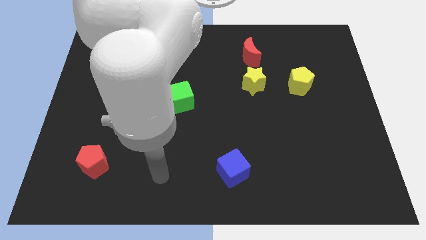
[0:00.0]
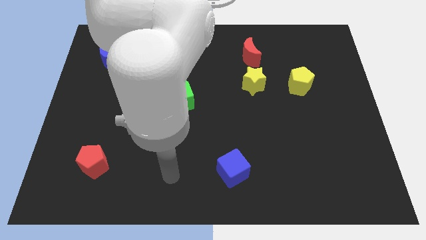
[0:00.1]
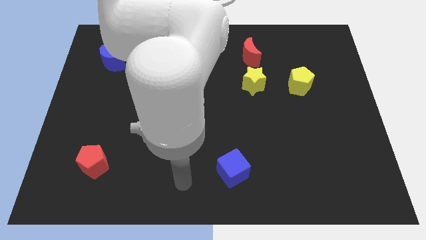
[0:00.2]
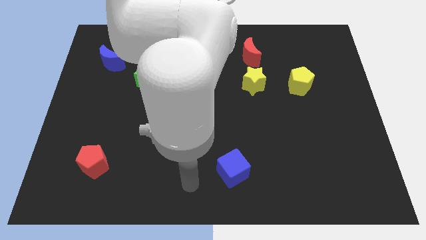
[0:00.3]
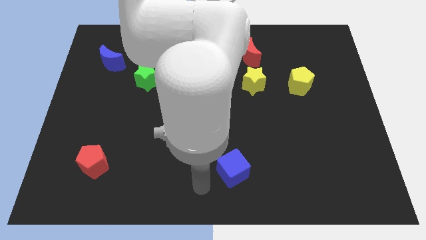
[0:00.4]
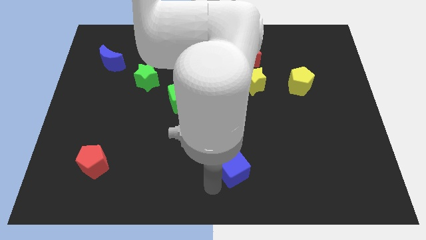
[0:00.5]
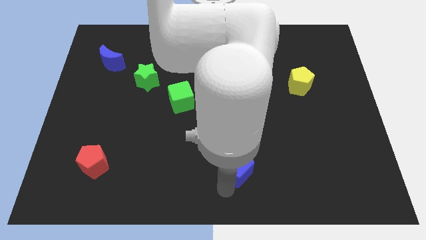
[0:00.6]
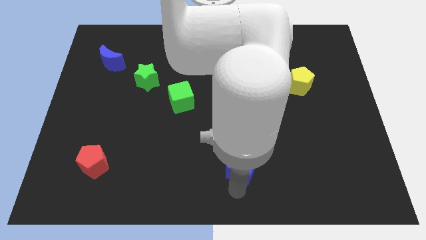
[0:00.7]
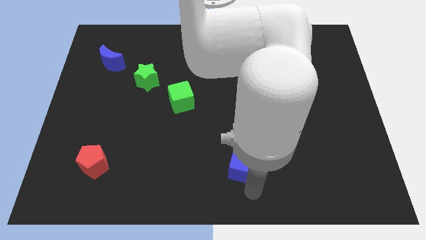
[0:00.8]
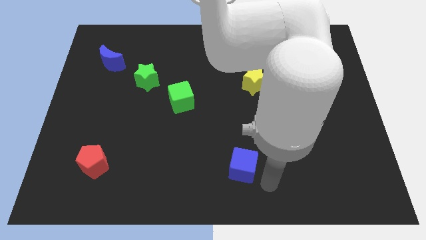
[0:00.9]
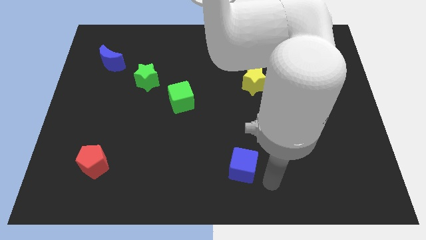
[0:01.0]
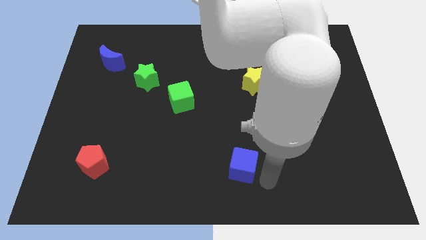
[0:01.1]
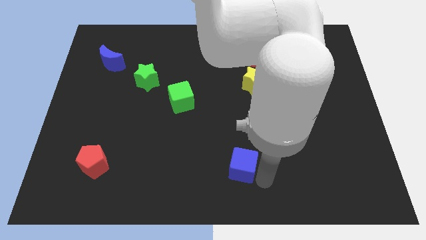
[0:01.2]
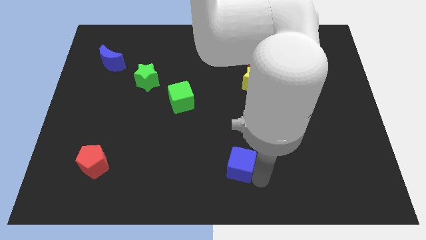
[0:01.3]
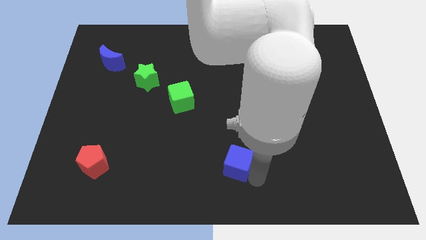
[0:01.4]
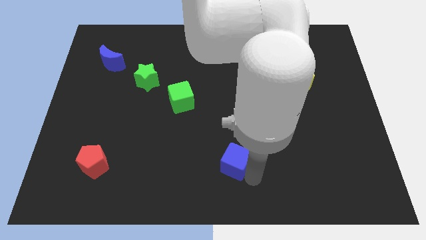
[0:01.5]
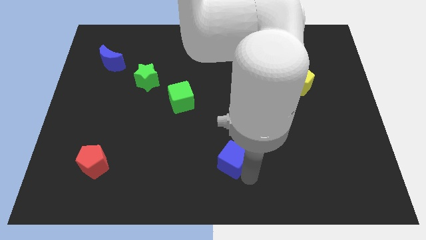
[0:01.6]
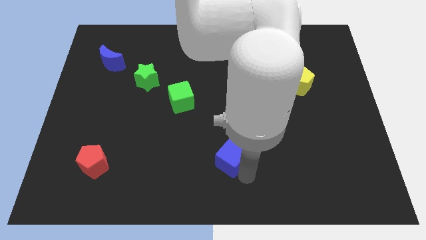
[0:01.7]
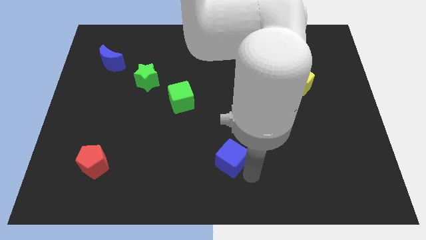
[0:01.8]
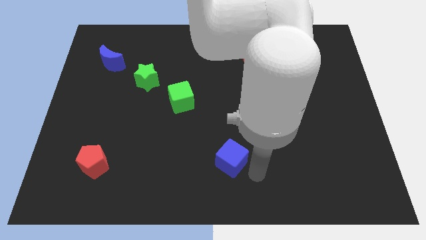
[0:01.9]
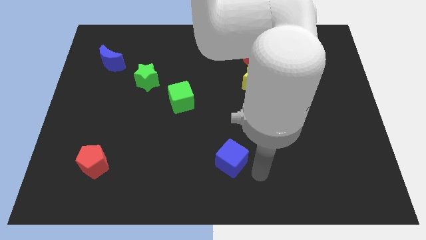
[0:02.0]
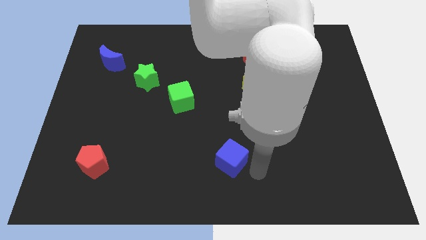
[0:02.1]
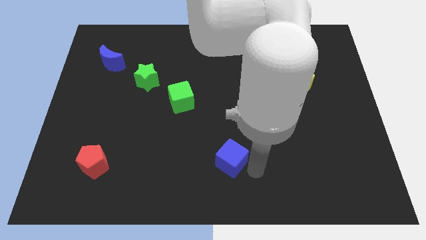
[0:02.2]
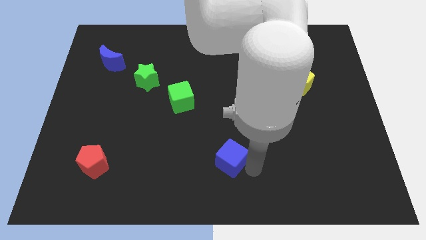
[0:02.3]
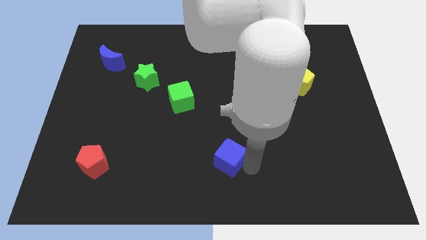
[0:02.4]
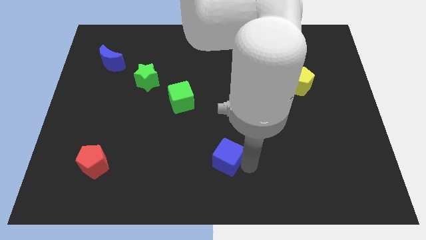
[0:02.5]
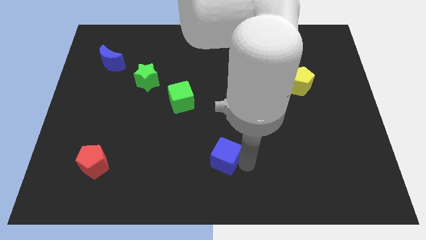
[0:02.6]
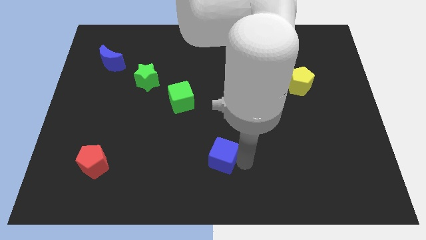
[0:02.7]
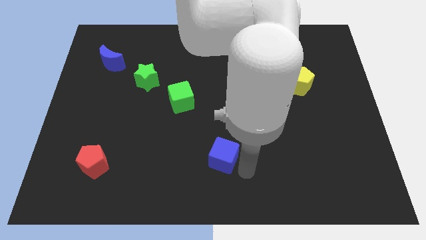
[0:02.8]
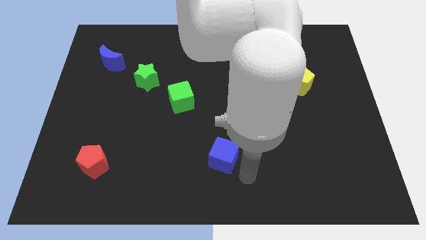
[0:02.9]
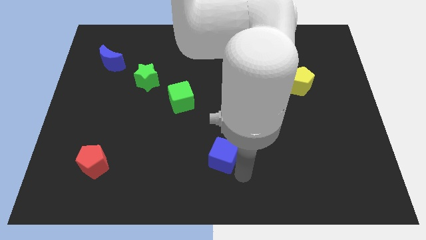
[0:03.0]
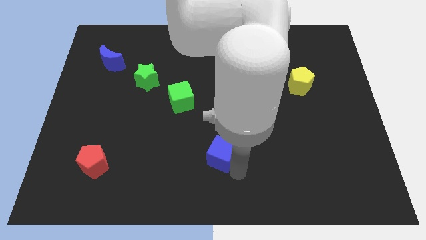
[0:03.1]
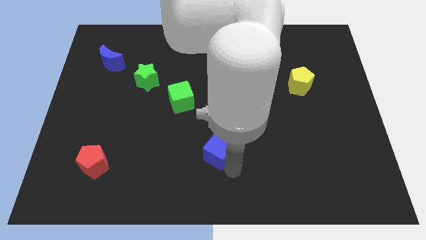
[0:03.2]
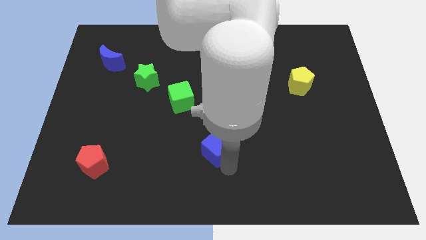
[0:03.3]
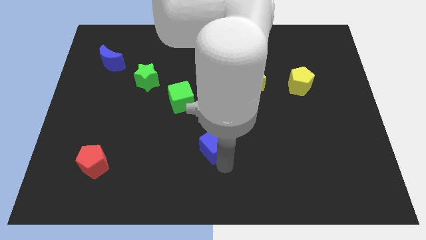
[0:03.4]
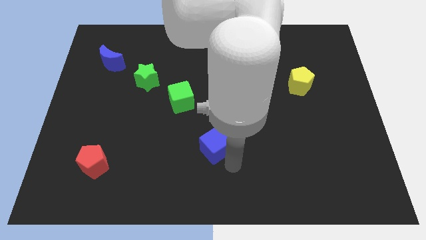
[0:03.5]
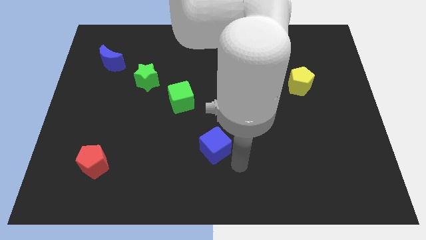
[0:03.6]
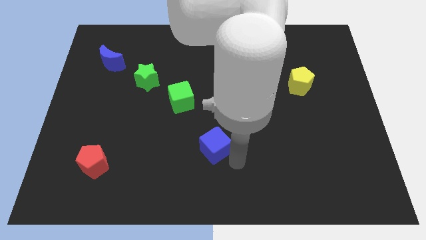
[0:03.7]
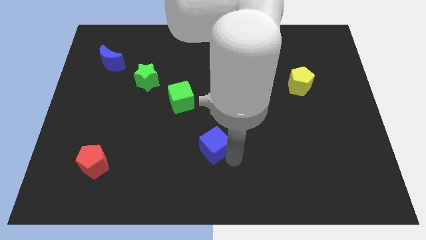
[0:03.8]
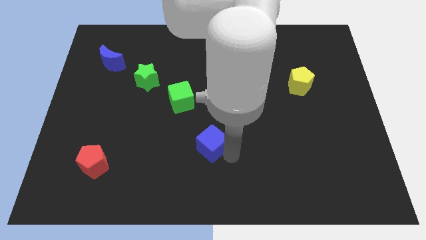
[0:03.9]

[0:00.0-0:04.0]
slightly slide the blue cube up and then to the left

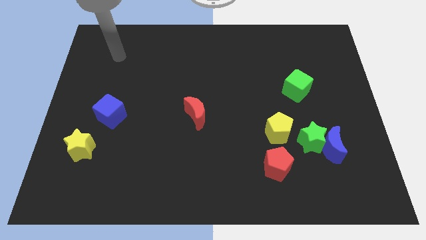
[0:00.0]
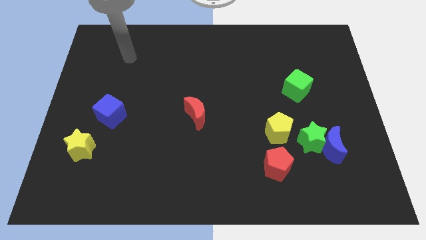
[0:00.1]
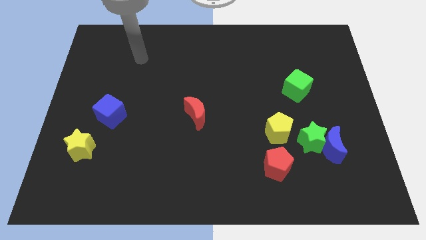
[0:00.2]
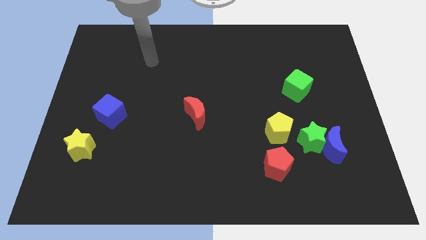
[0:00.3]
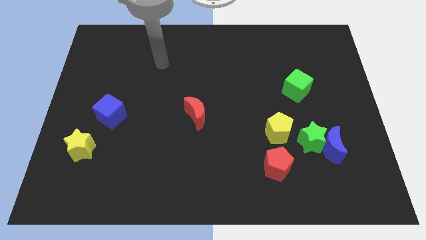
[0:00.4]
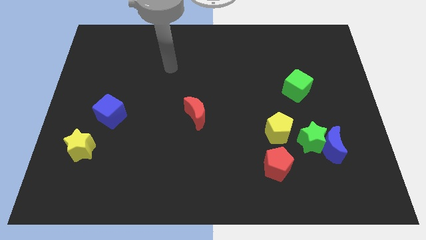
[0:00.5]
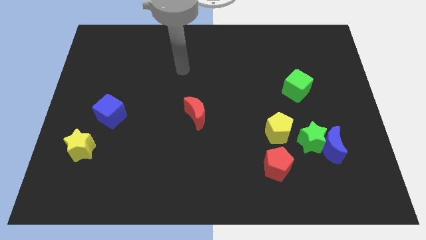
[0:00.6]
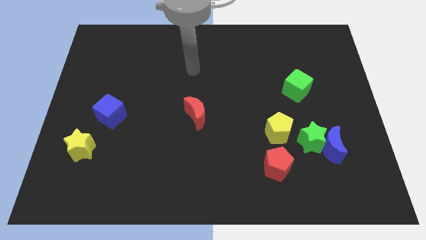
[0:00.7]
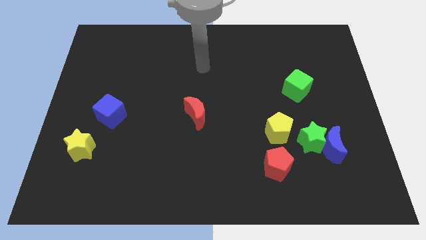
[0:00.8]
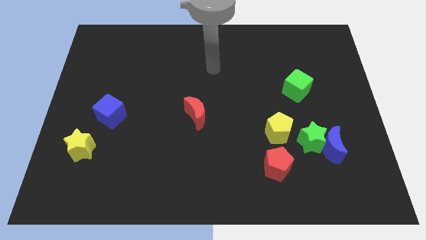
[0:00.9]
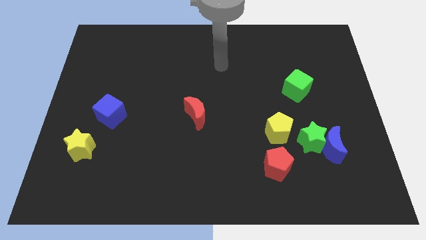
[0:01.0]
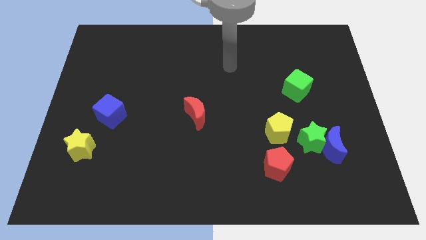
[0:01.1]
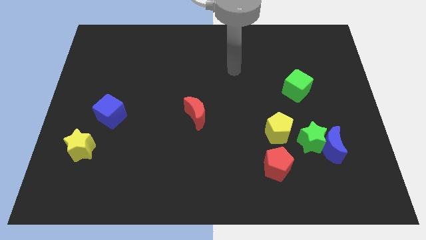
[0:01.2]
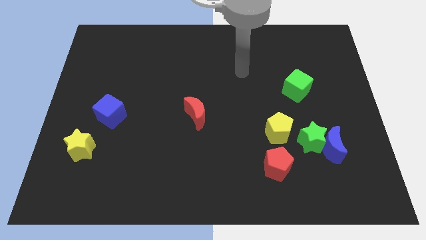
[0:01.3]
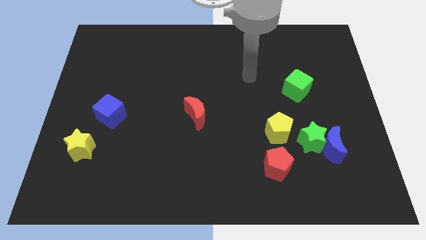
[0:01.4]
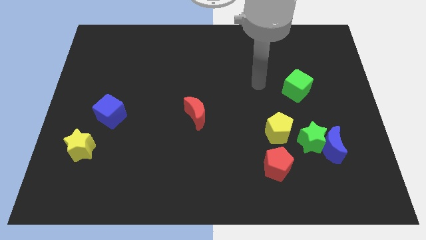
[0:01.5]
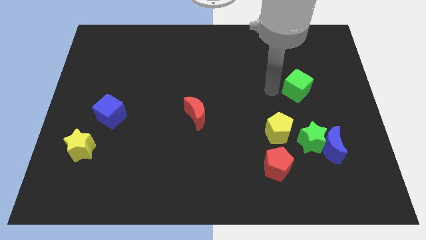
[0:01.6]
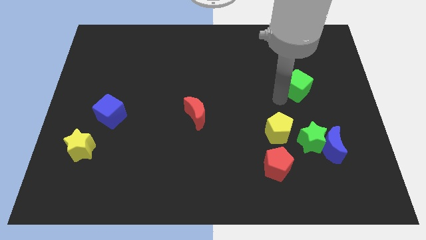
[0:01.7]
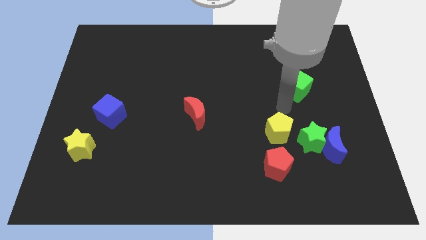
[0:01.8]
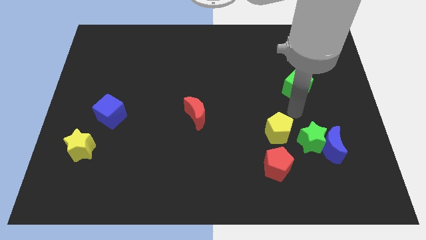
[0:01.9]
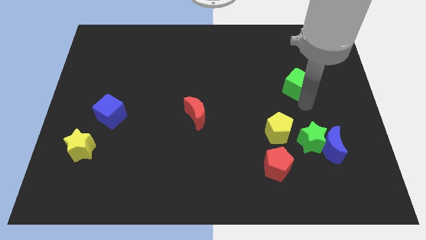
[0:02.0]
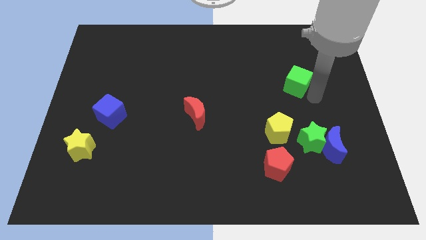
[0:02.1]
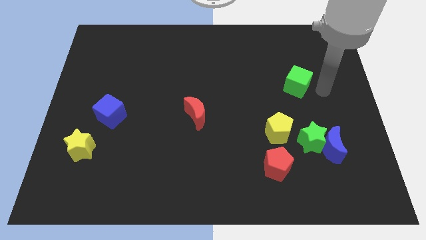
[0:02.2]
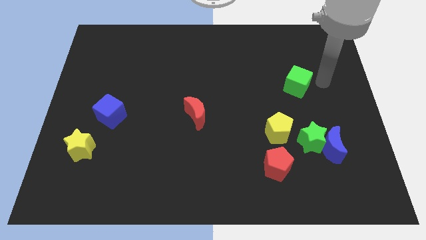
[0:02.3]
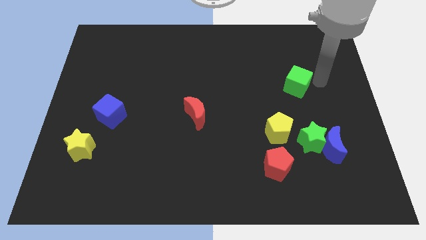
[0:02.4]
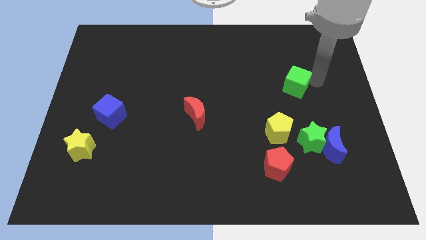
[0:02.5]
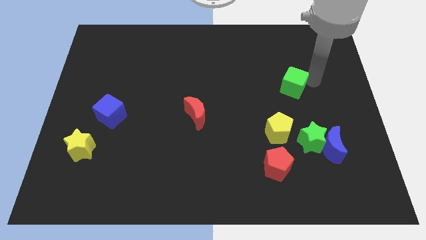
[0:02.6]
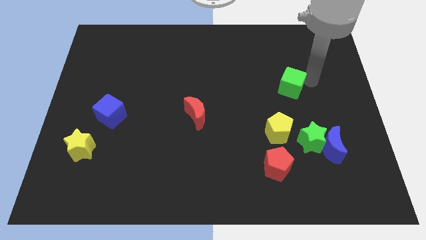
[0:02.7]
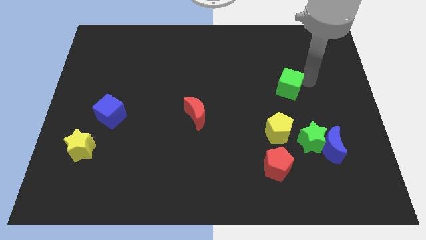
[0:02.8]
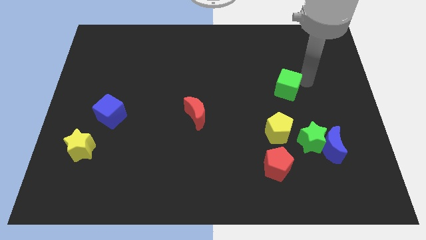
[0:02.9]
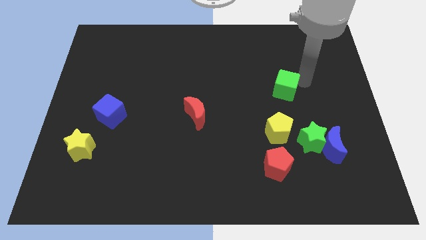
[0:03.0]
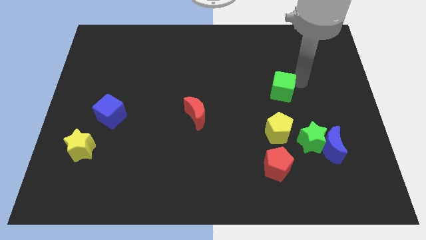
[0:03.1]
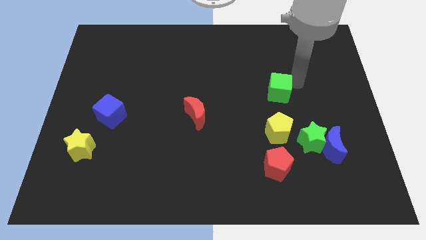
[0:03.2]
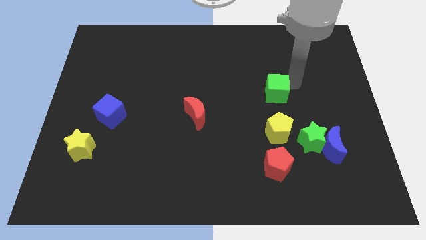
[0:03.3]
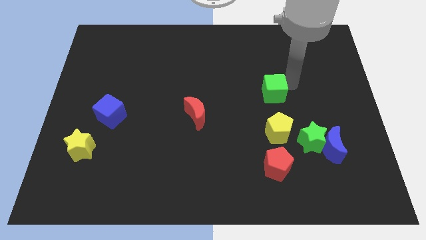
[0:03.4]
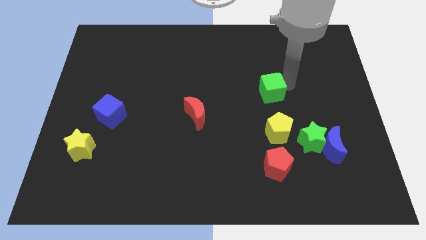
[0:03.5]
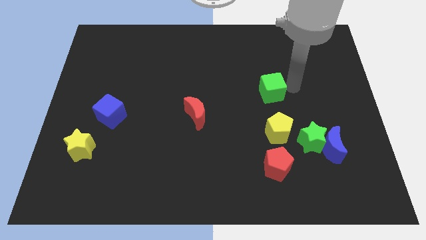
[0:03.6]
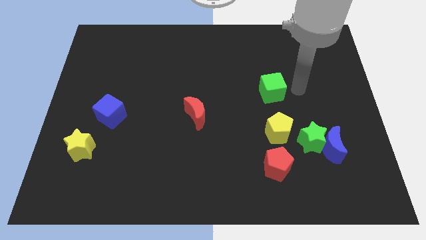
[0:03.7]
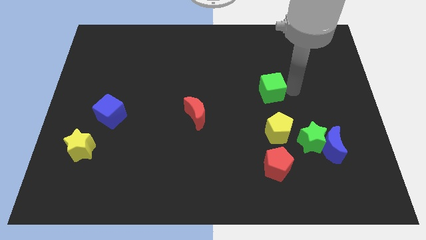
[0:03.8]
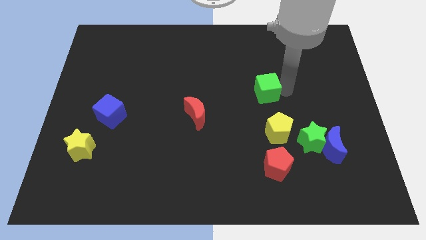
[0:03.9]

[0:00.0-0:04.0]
move the green cube a bit left

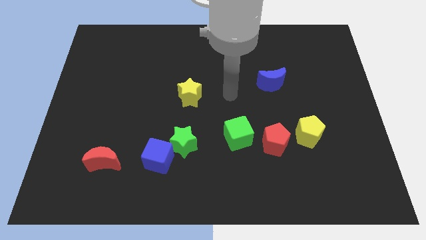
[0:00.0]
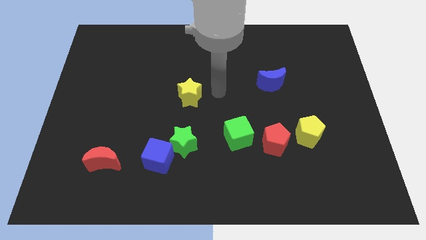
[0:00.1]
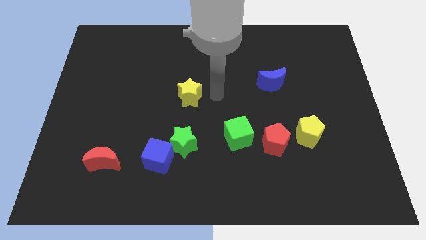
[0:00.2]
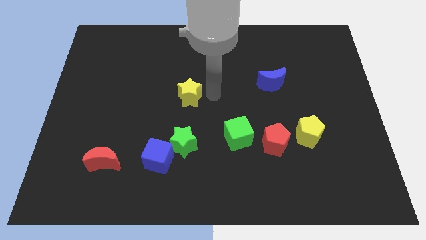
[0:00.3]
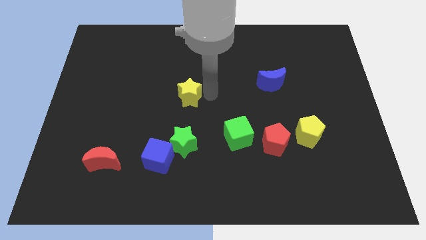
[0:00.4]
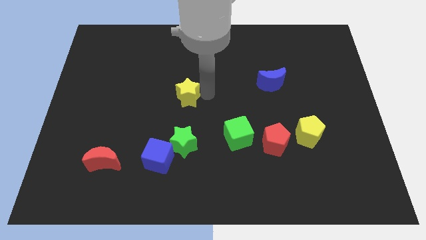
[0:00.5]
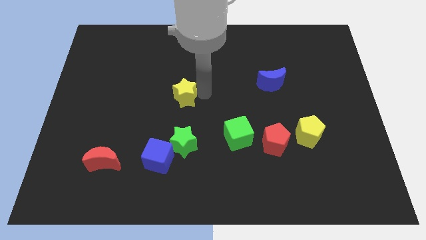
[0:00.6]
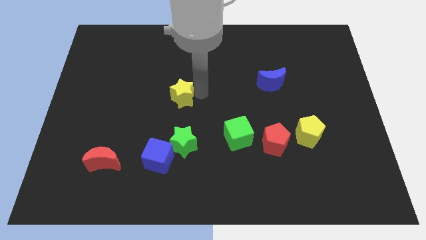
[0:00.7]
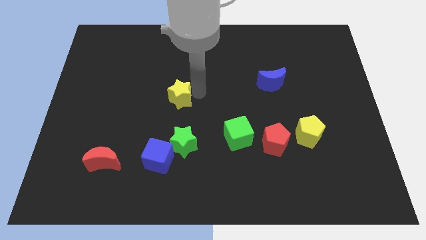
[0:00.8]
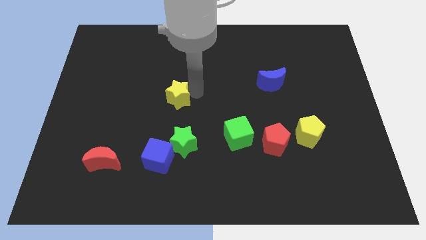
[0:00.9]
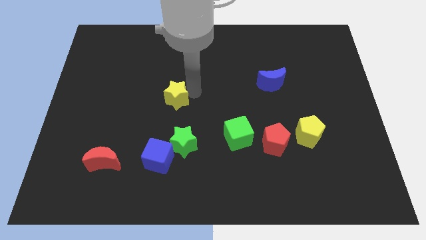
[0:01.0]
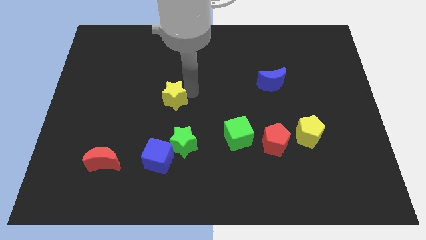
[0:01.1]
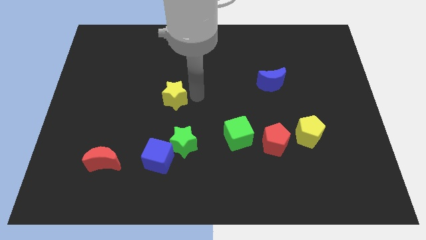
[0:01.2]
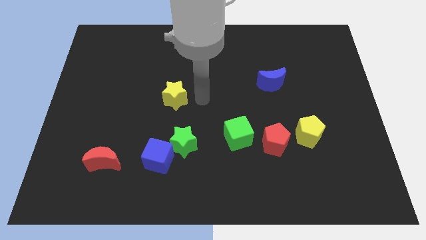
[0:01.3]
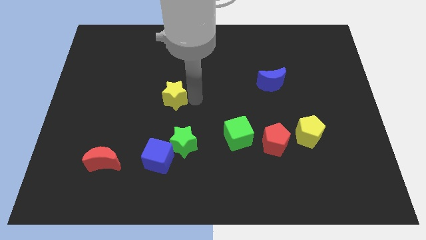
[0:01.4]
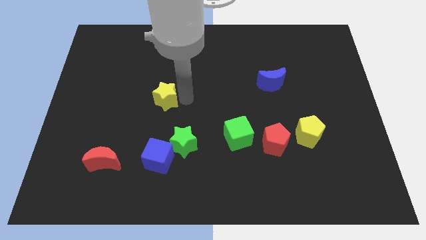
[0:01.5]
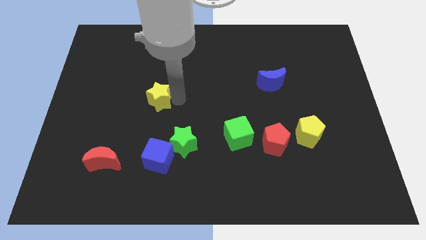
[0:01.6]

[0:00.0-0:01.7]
slide the yellow star slightly to the left
